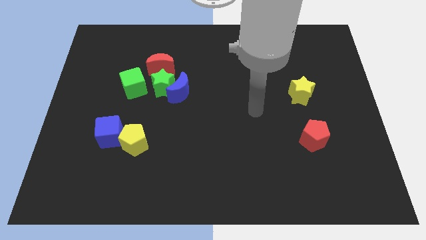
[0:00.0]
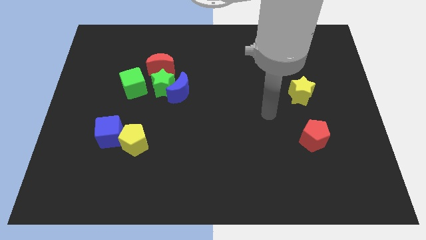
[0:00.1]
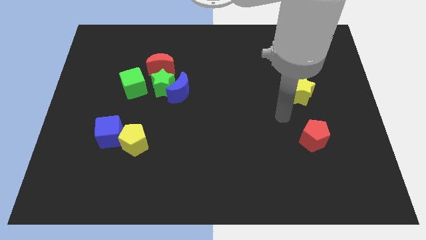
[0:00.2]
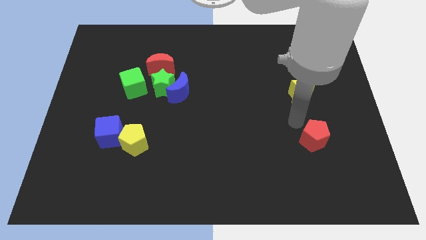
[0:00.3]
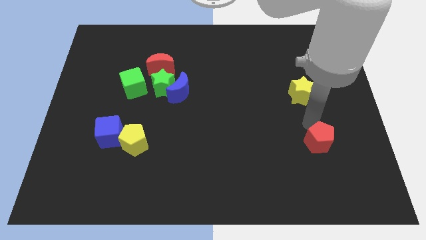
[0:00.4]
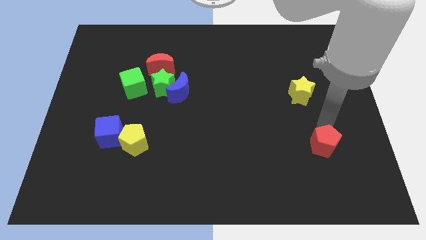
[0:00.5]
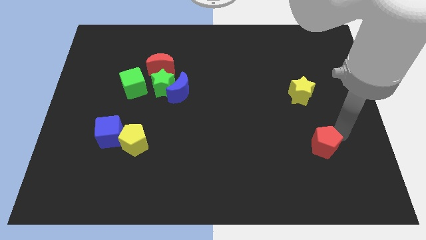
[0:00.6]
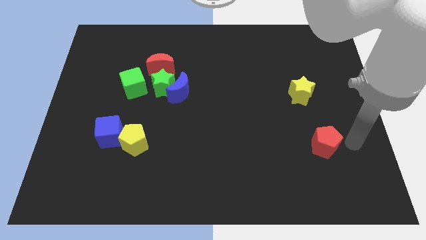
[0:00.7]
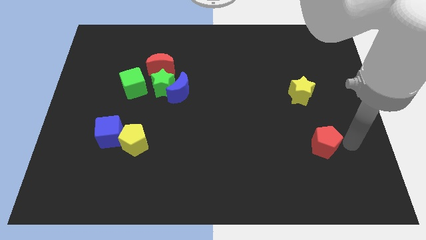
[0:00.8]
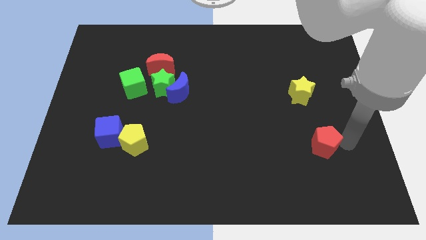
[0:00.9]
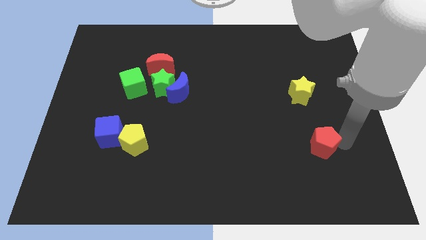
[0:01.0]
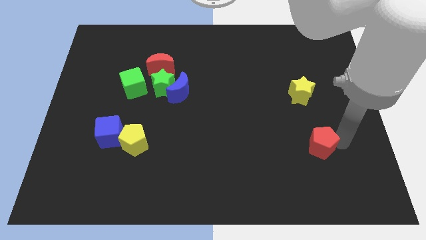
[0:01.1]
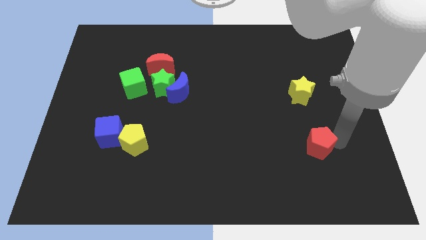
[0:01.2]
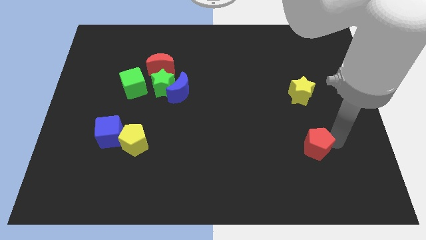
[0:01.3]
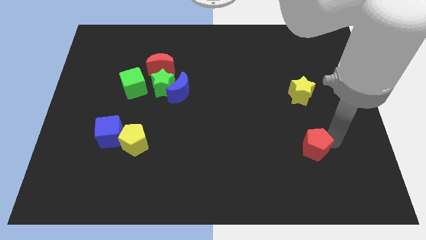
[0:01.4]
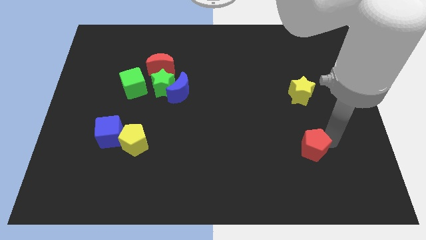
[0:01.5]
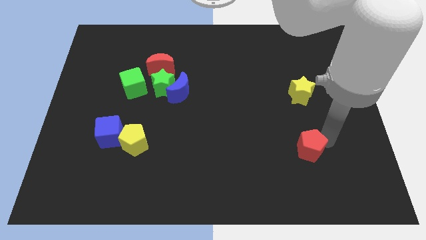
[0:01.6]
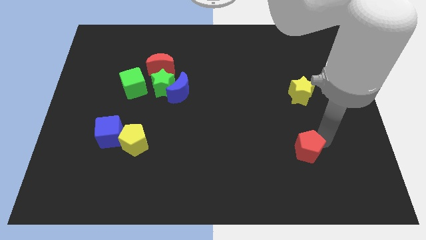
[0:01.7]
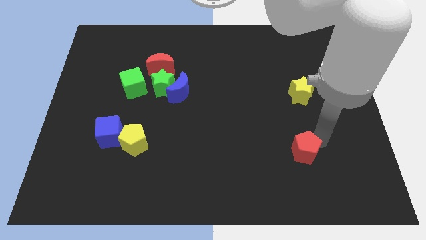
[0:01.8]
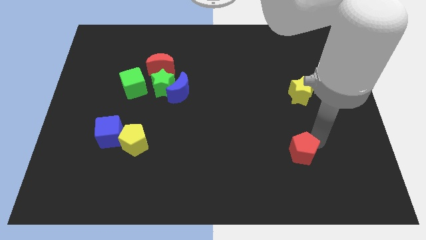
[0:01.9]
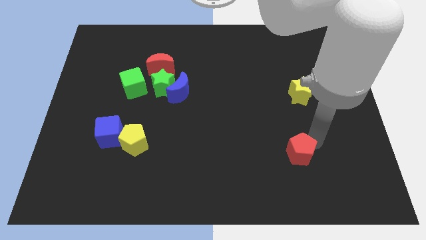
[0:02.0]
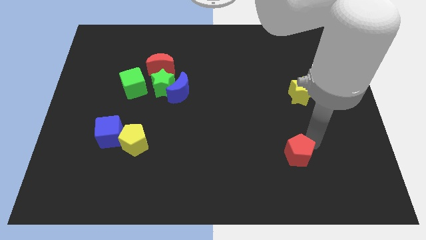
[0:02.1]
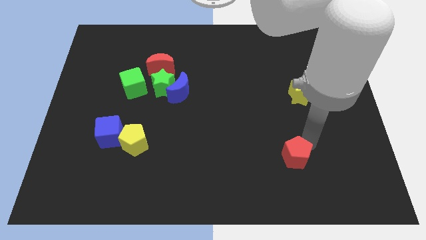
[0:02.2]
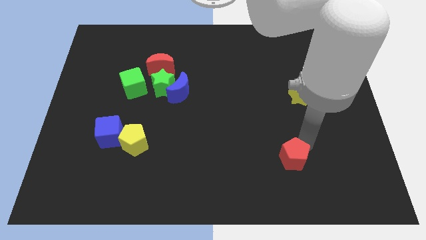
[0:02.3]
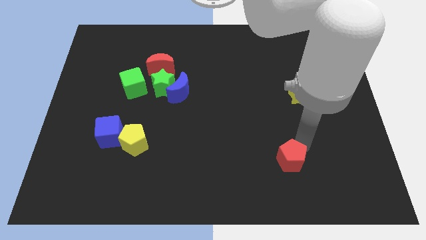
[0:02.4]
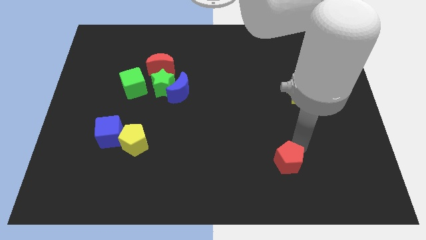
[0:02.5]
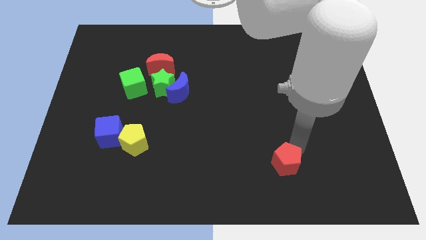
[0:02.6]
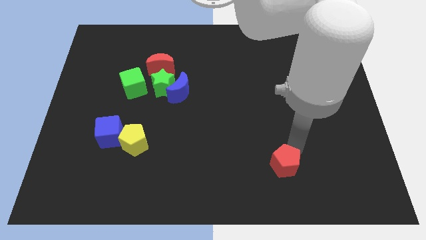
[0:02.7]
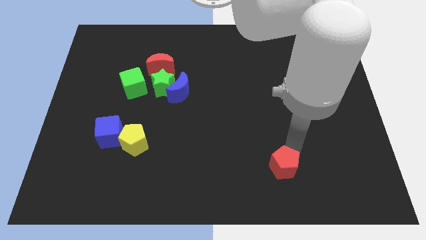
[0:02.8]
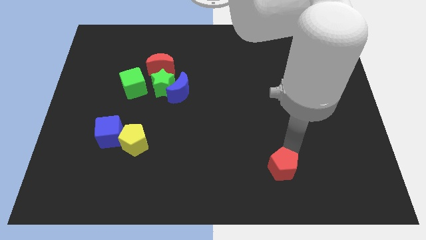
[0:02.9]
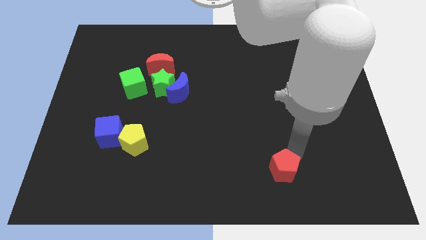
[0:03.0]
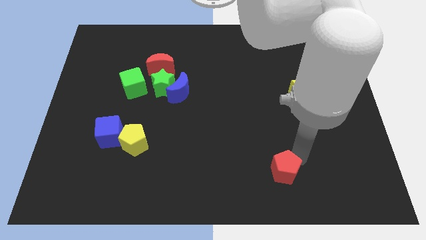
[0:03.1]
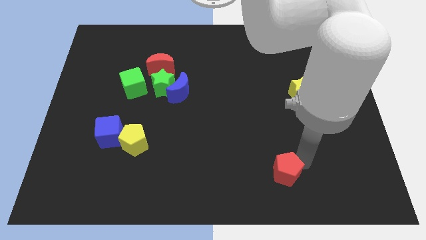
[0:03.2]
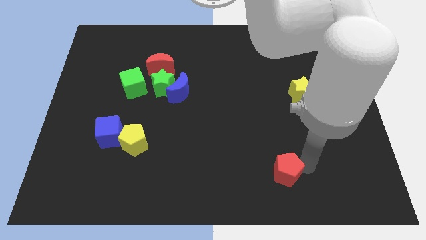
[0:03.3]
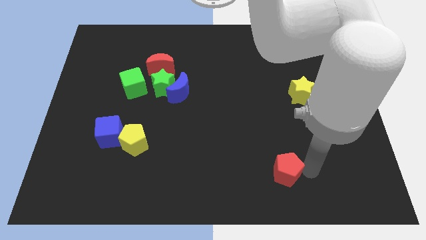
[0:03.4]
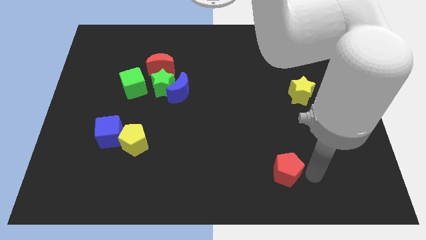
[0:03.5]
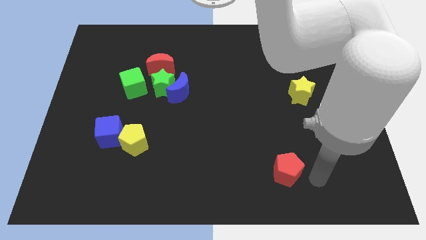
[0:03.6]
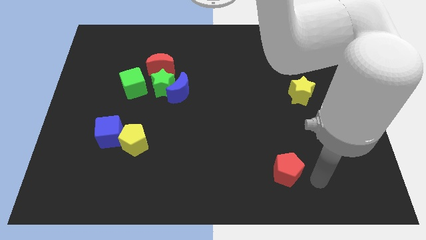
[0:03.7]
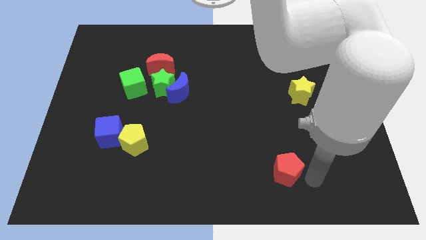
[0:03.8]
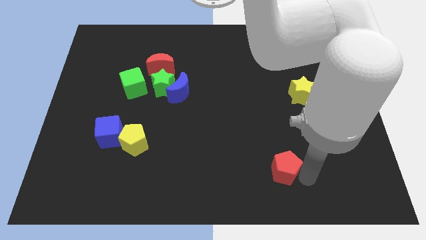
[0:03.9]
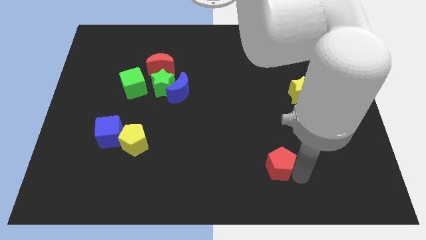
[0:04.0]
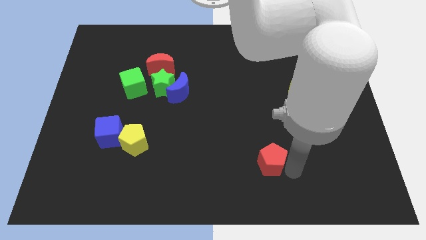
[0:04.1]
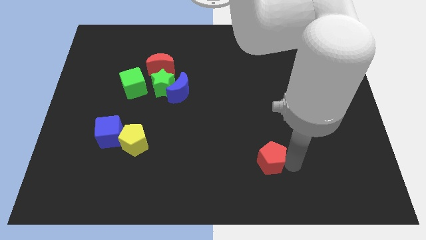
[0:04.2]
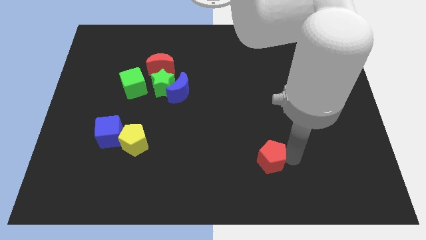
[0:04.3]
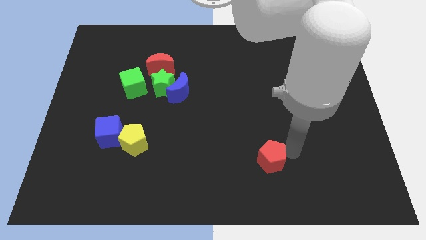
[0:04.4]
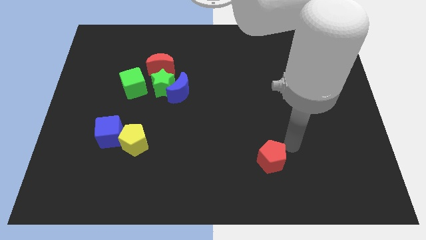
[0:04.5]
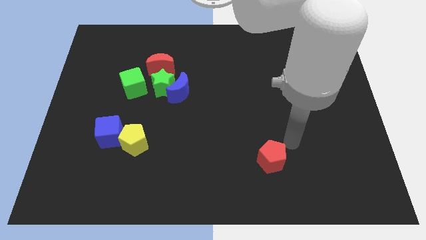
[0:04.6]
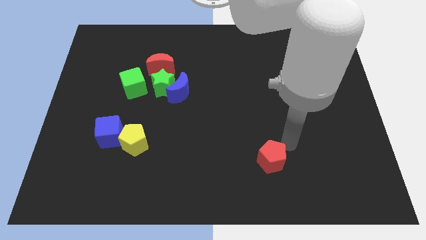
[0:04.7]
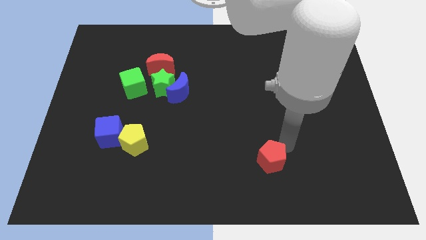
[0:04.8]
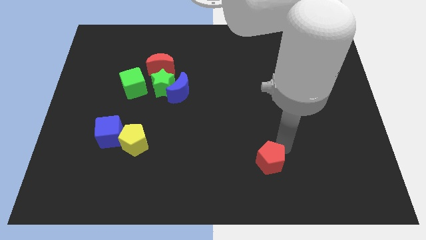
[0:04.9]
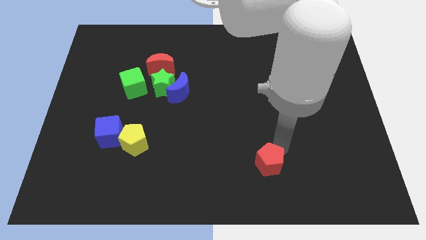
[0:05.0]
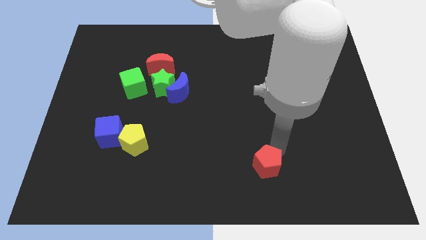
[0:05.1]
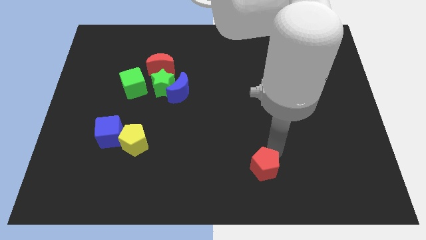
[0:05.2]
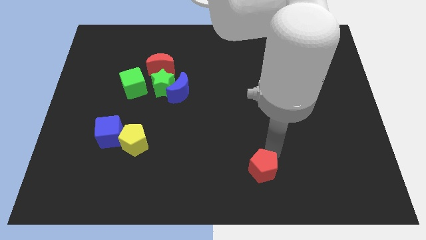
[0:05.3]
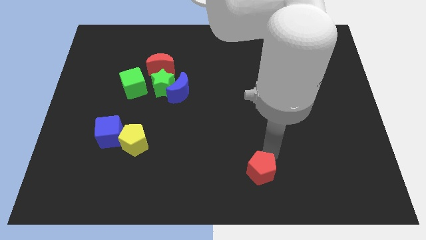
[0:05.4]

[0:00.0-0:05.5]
slide the red pentagon to the bottom side
